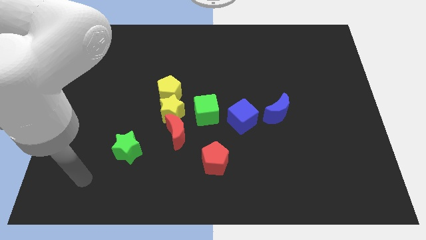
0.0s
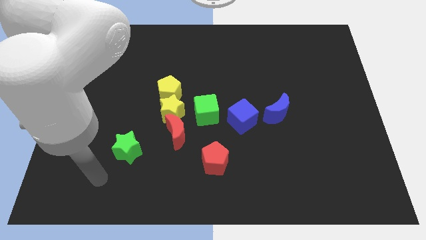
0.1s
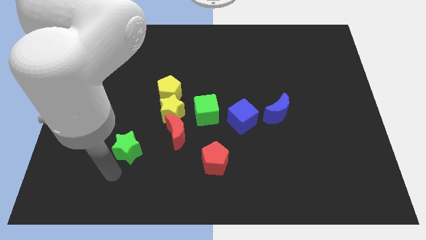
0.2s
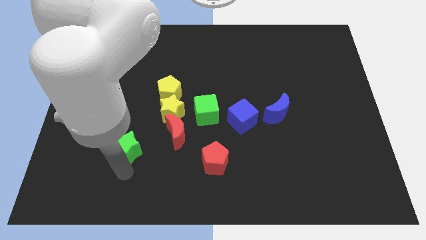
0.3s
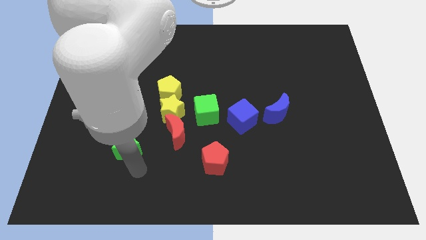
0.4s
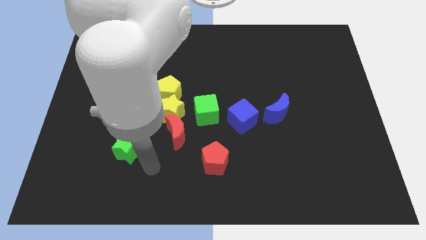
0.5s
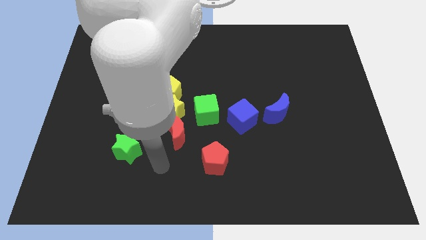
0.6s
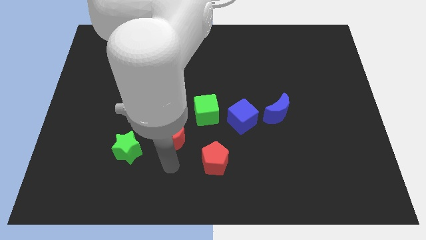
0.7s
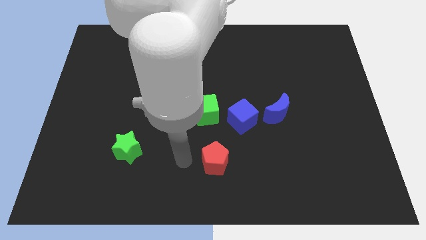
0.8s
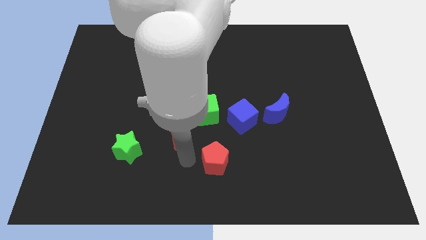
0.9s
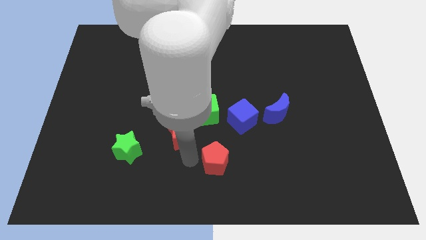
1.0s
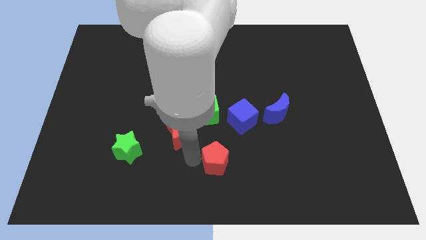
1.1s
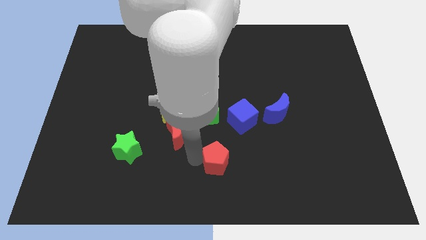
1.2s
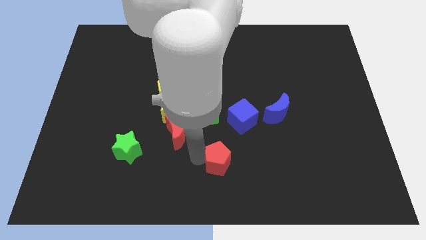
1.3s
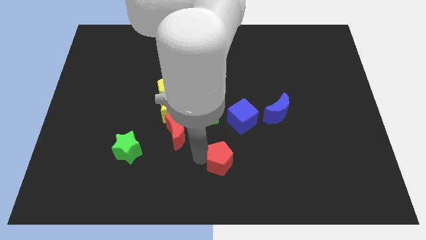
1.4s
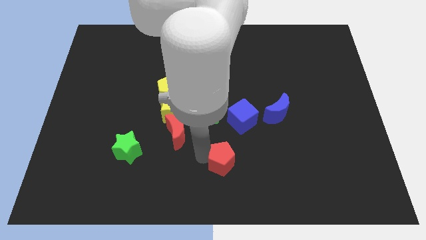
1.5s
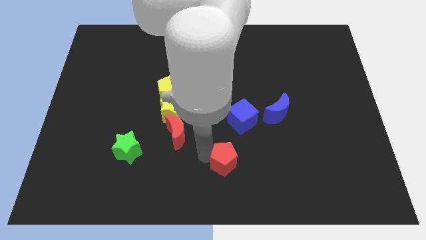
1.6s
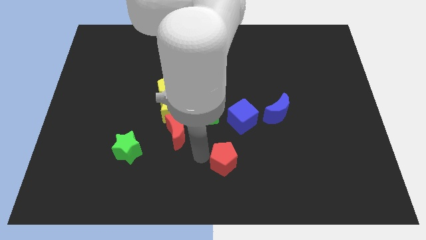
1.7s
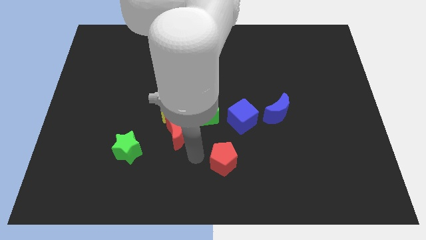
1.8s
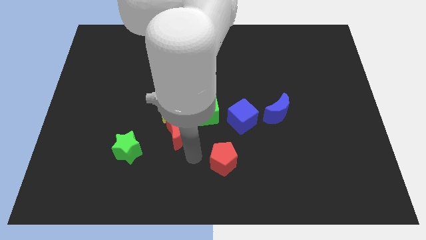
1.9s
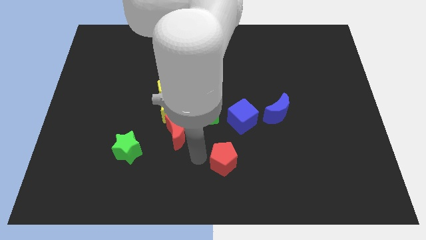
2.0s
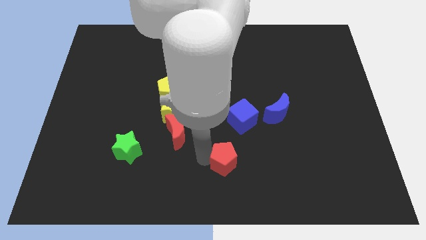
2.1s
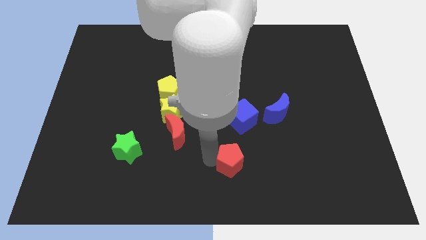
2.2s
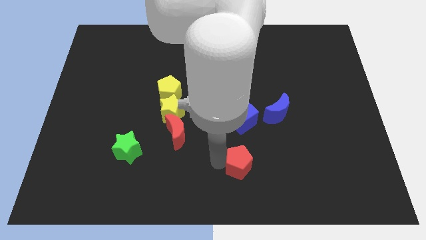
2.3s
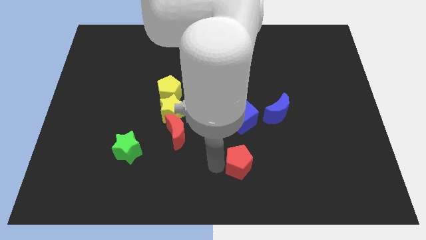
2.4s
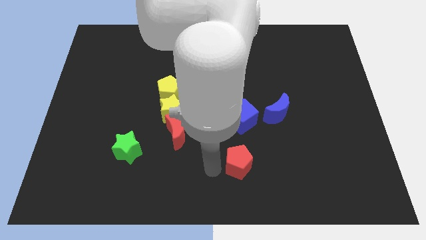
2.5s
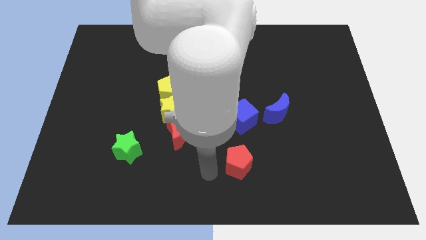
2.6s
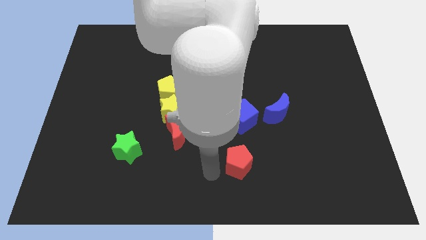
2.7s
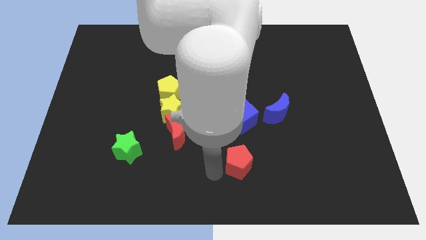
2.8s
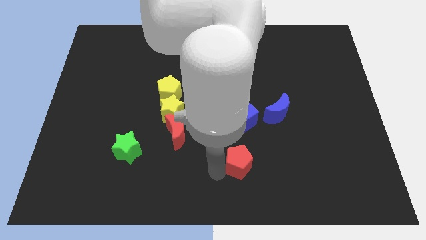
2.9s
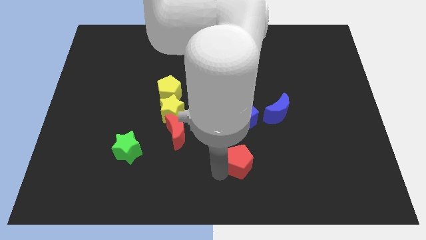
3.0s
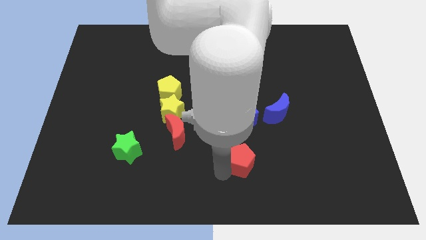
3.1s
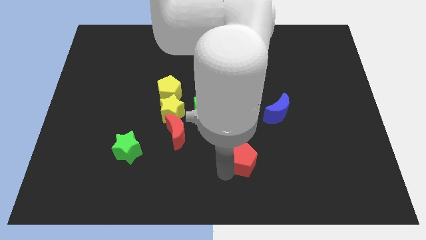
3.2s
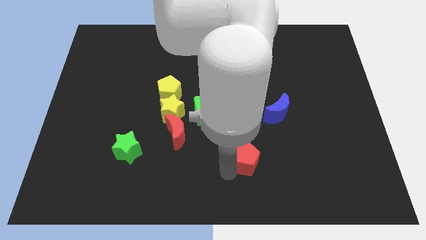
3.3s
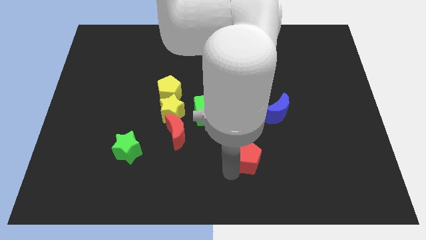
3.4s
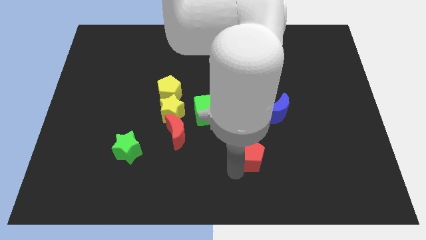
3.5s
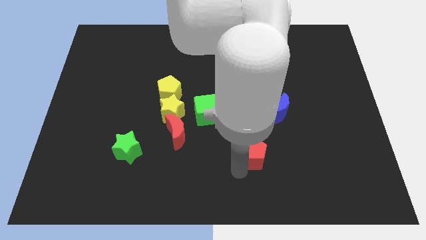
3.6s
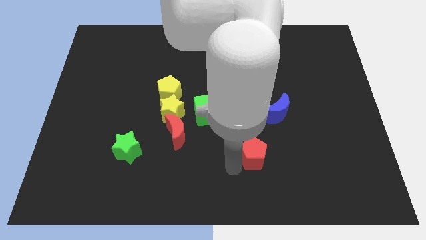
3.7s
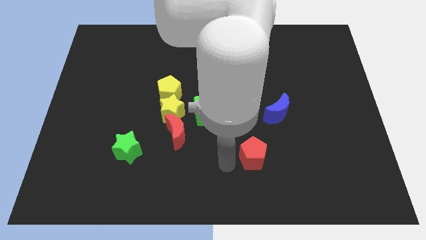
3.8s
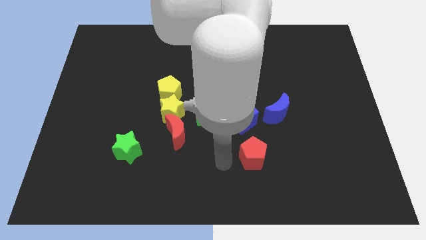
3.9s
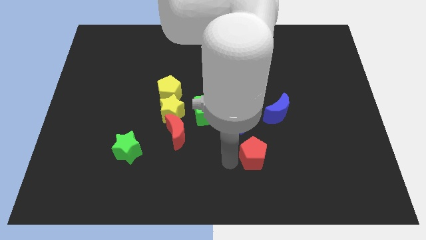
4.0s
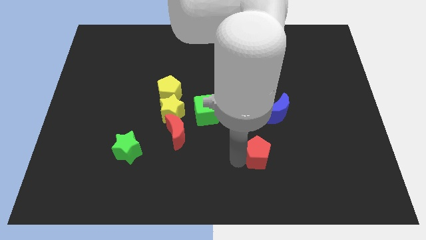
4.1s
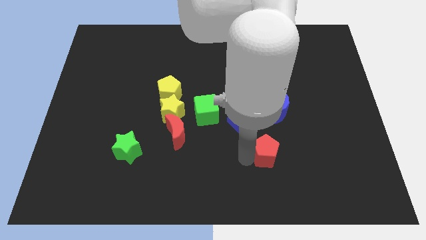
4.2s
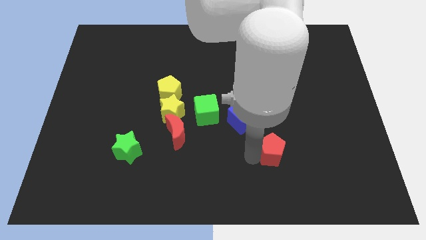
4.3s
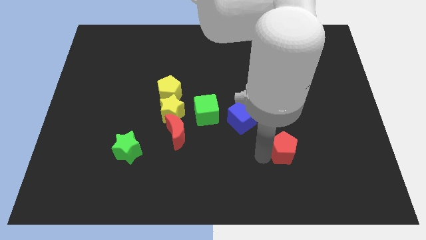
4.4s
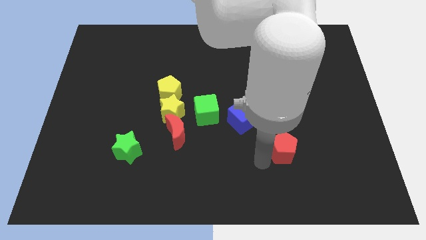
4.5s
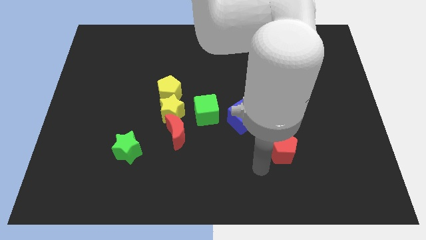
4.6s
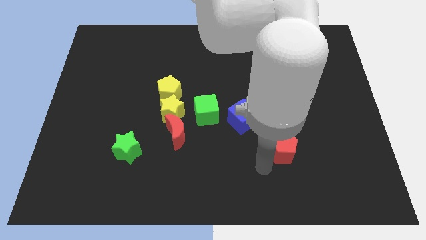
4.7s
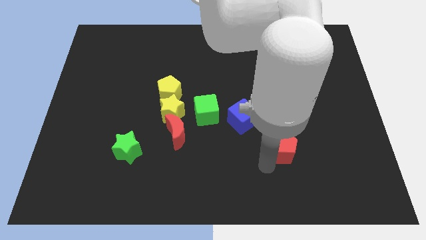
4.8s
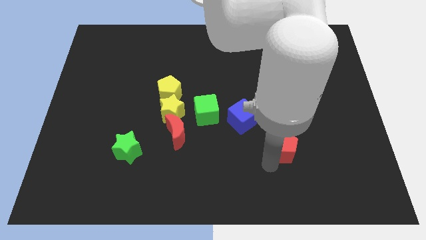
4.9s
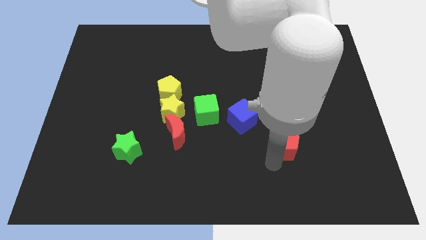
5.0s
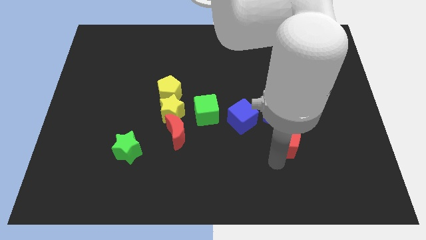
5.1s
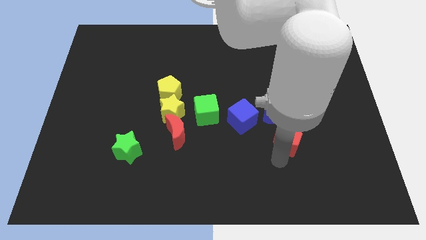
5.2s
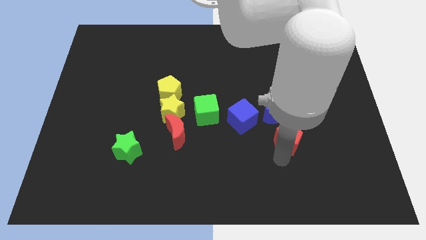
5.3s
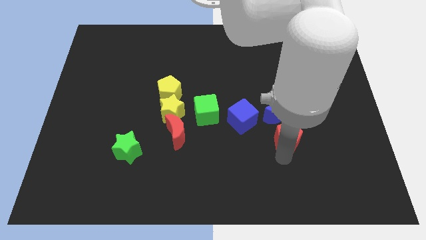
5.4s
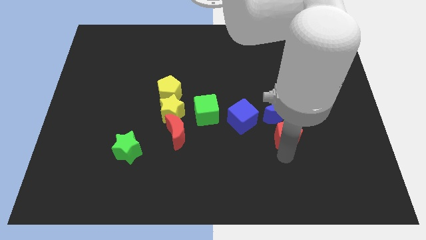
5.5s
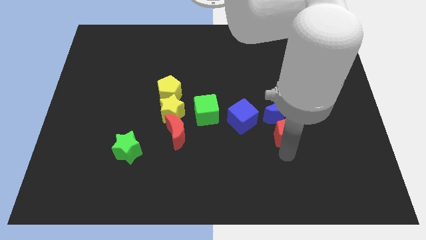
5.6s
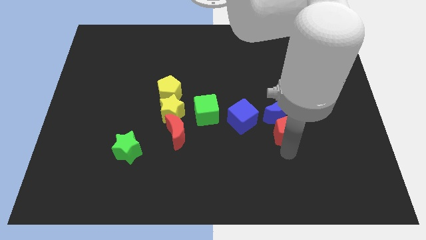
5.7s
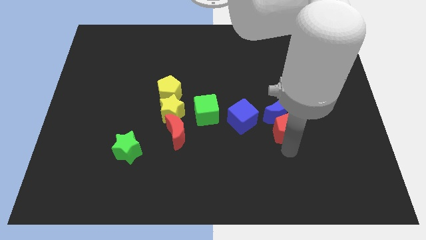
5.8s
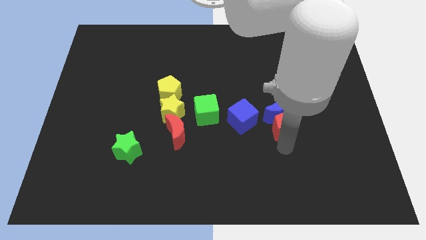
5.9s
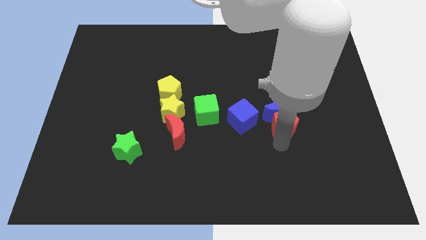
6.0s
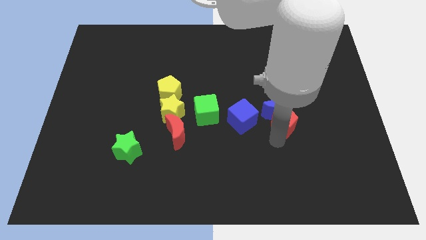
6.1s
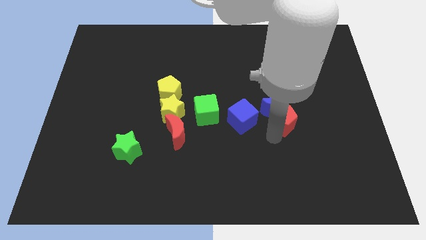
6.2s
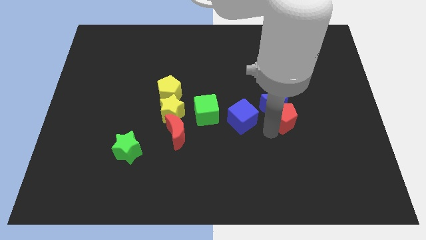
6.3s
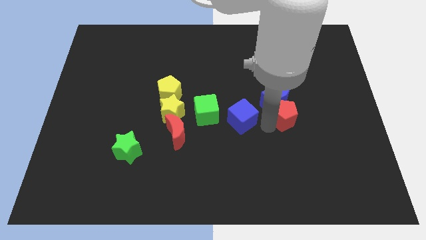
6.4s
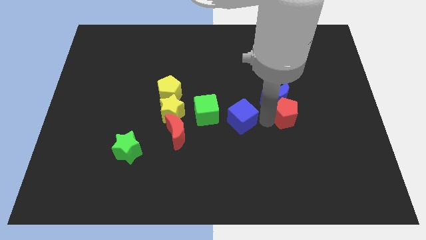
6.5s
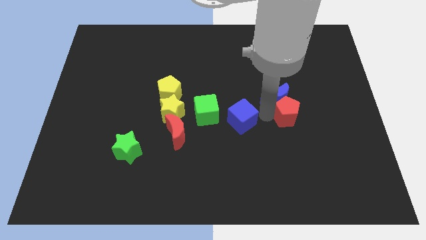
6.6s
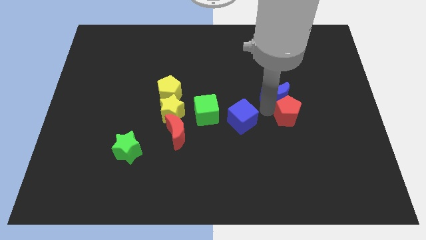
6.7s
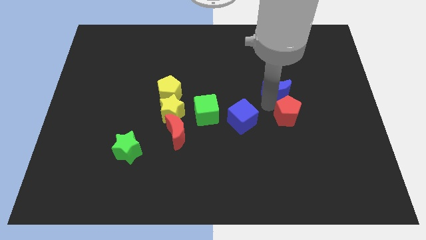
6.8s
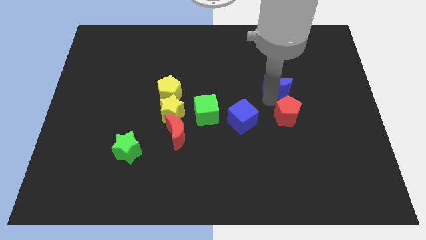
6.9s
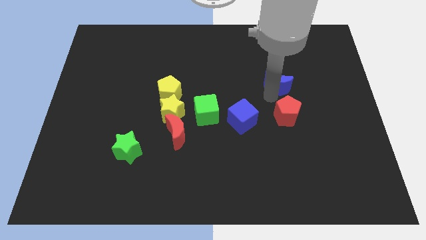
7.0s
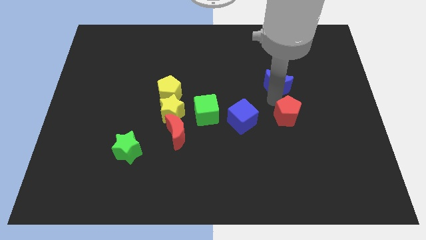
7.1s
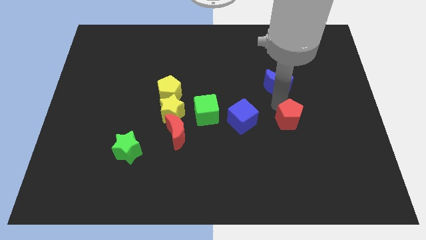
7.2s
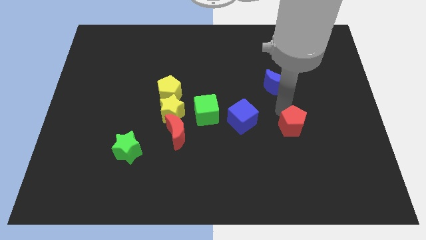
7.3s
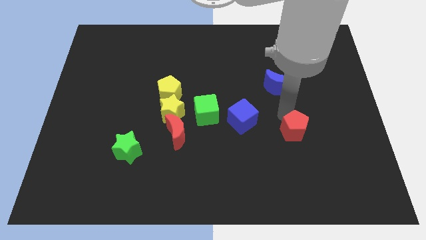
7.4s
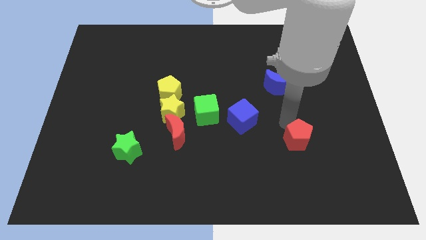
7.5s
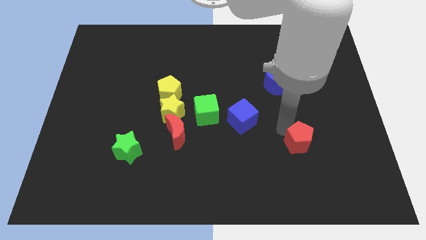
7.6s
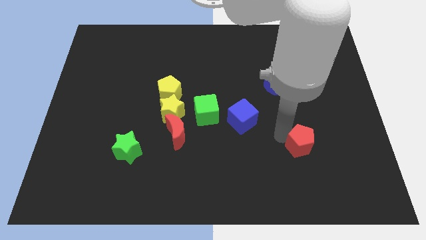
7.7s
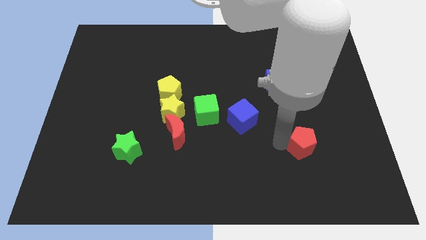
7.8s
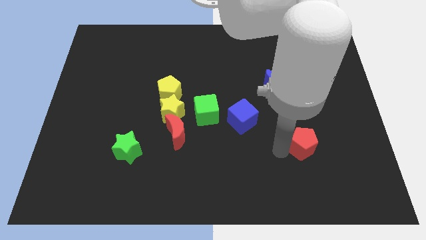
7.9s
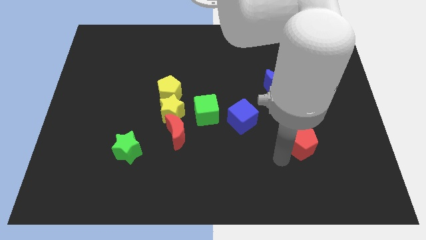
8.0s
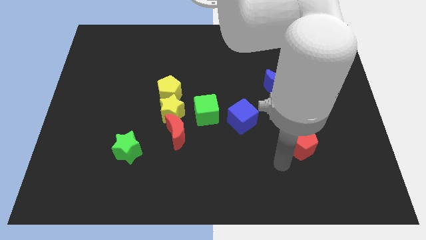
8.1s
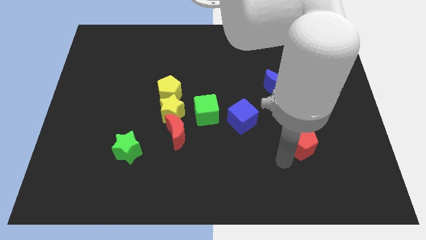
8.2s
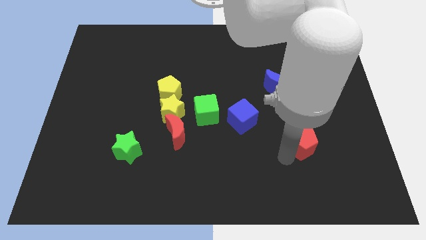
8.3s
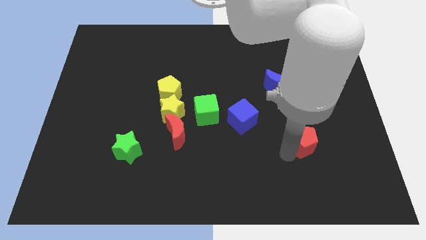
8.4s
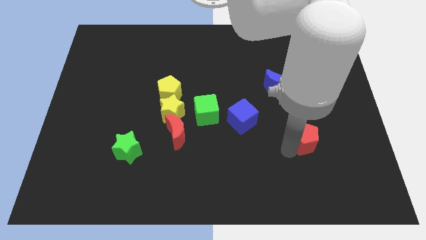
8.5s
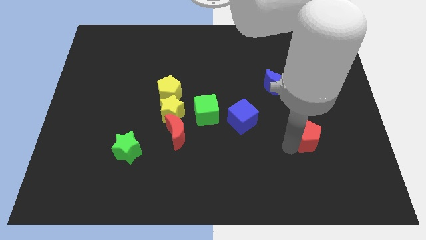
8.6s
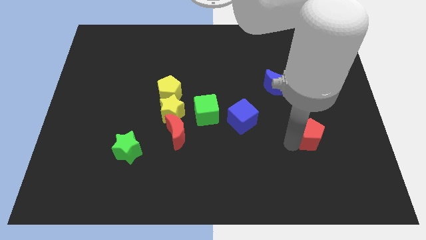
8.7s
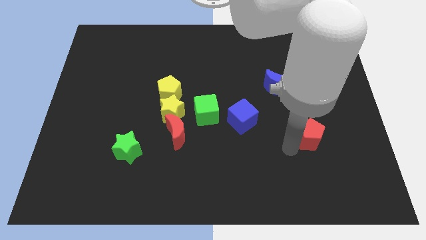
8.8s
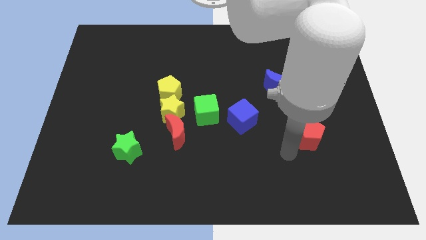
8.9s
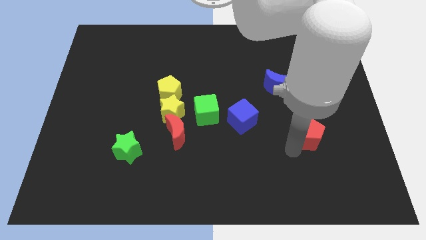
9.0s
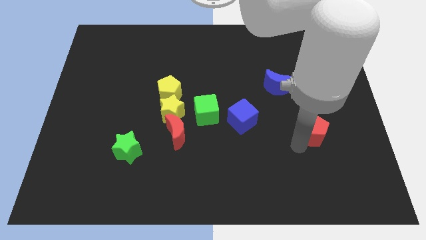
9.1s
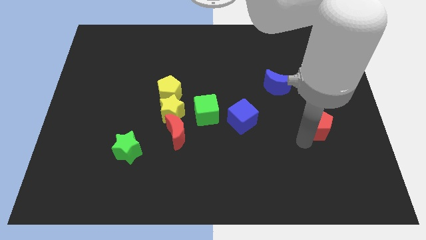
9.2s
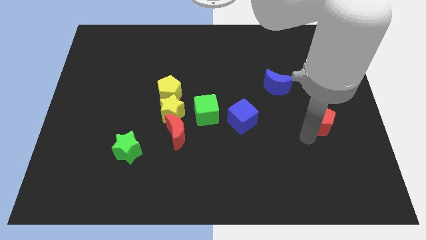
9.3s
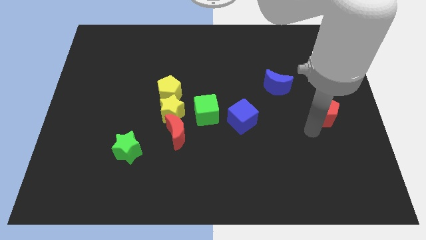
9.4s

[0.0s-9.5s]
push the red pentagon to the center right
